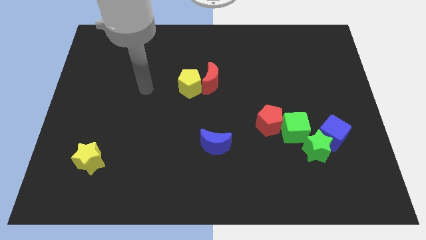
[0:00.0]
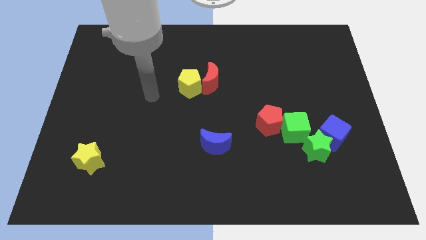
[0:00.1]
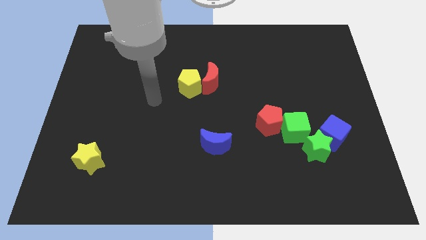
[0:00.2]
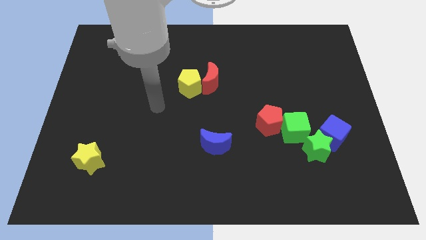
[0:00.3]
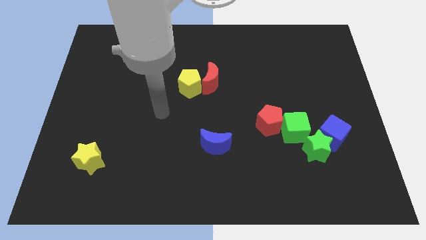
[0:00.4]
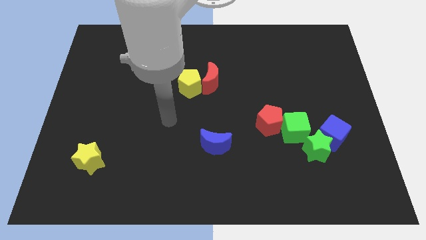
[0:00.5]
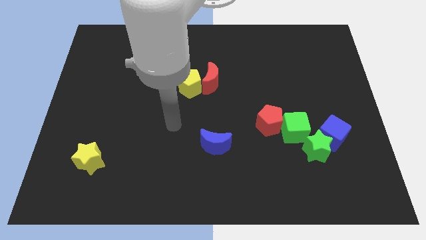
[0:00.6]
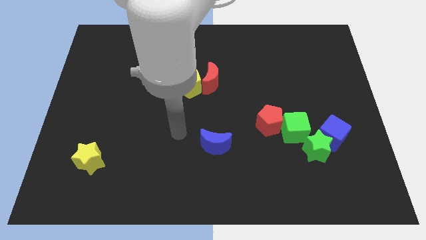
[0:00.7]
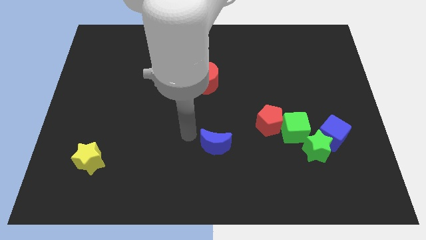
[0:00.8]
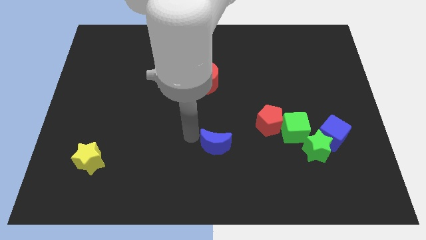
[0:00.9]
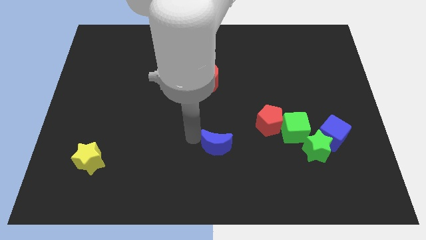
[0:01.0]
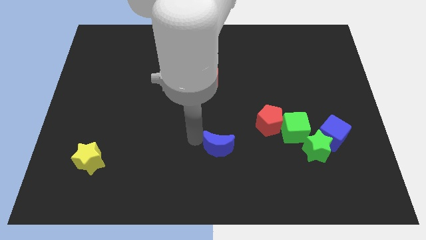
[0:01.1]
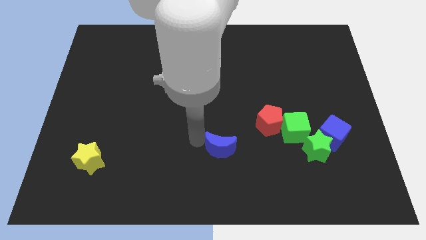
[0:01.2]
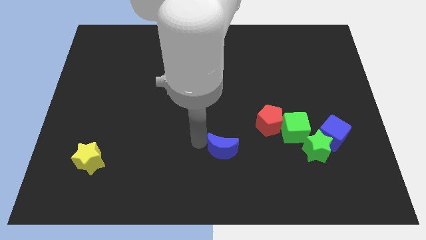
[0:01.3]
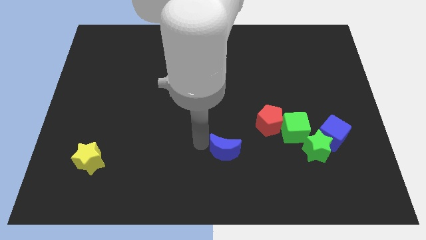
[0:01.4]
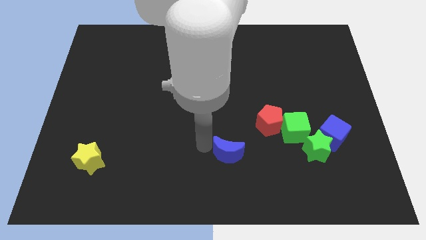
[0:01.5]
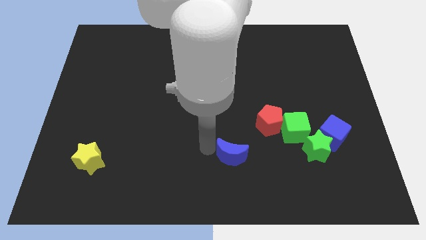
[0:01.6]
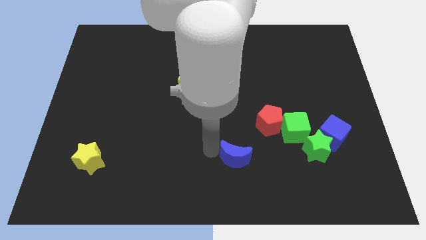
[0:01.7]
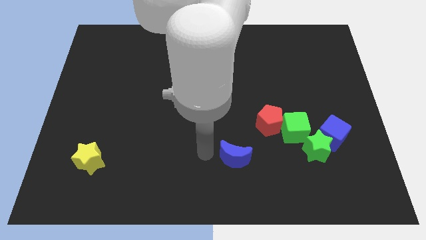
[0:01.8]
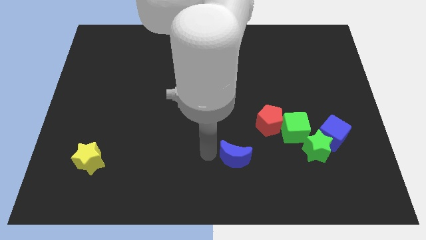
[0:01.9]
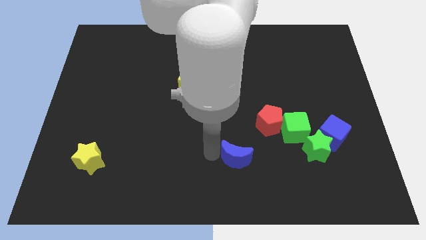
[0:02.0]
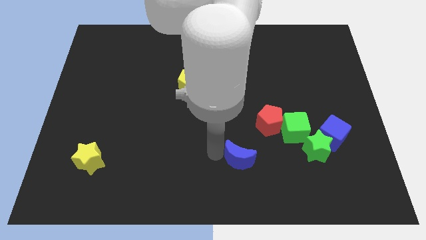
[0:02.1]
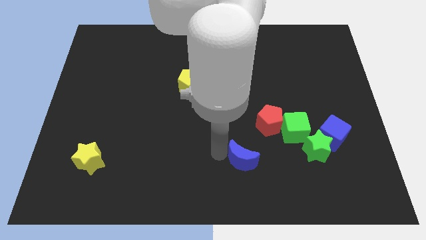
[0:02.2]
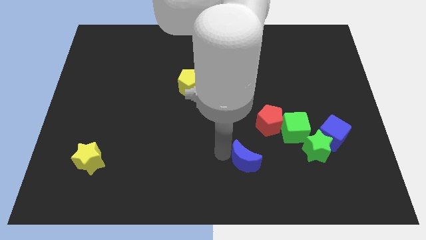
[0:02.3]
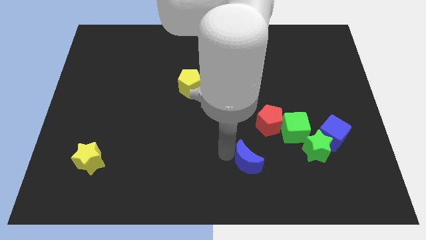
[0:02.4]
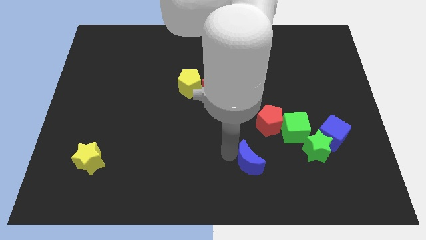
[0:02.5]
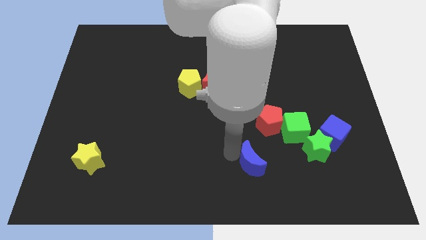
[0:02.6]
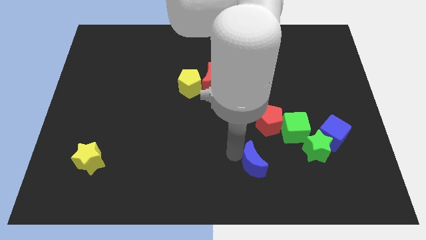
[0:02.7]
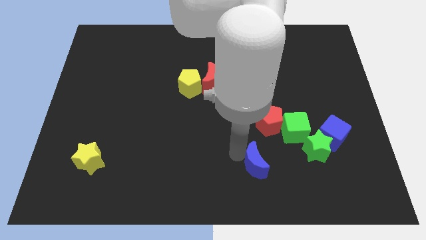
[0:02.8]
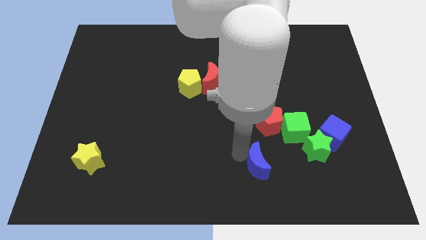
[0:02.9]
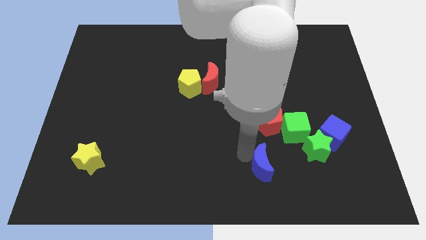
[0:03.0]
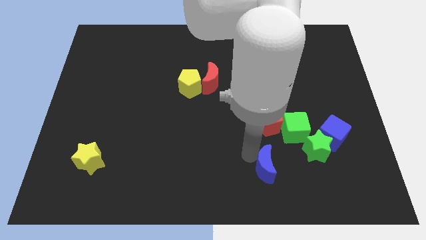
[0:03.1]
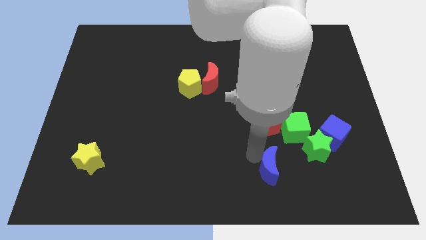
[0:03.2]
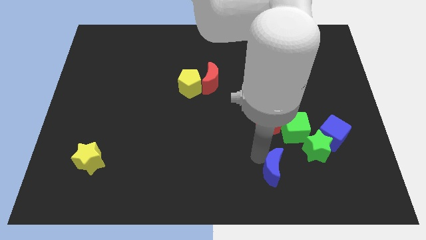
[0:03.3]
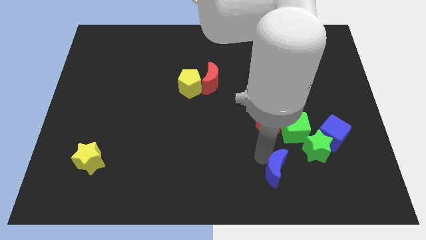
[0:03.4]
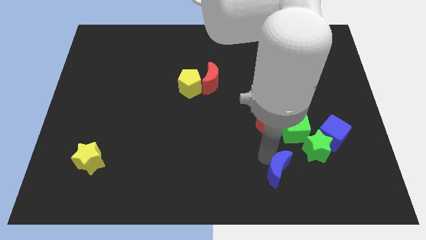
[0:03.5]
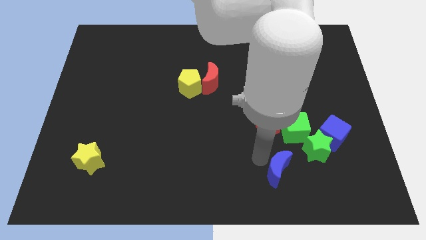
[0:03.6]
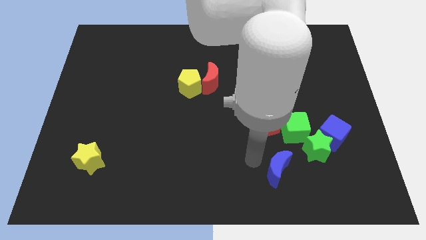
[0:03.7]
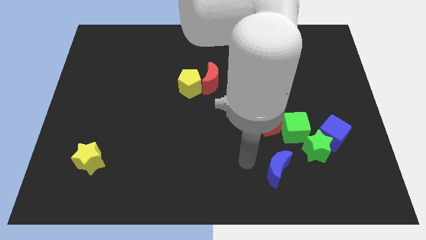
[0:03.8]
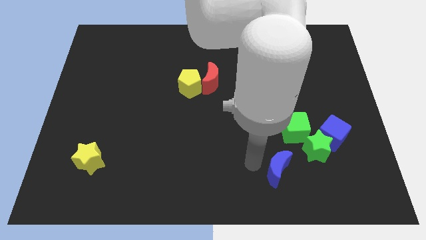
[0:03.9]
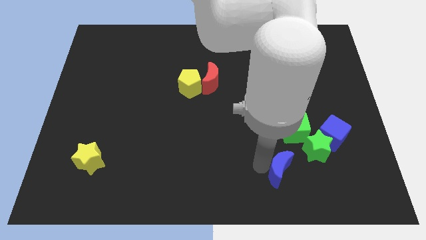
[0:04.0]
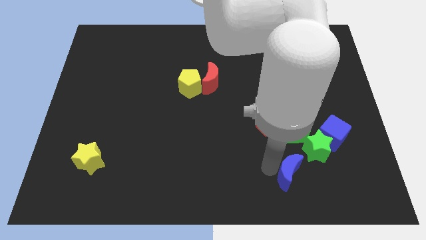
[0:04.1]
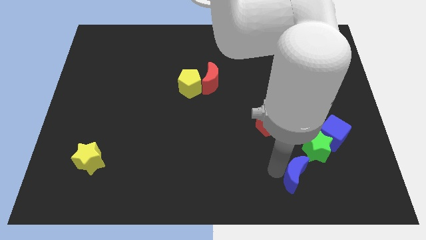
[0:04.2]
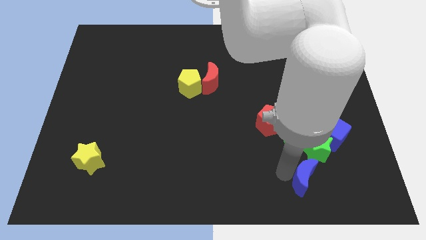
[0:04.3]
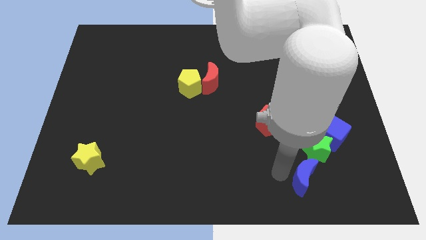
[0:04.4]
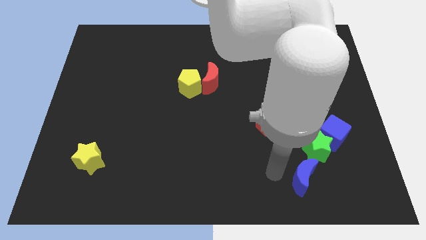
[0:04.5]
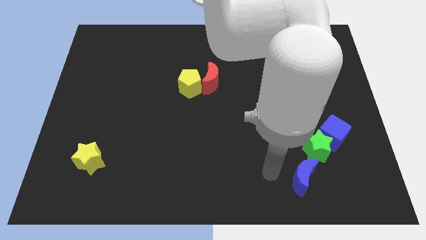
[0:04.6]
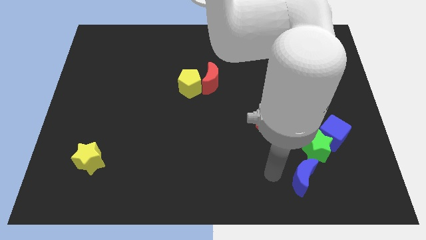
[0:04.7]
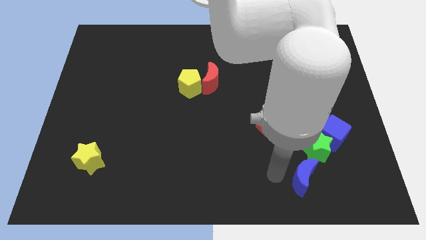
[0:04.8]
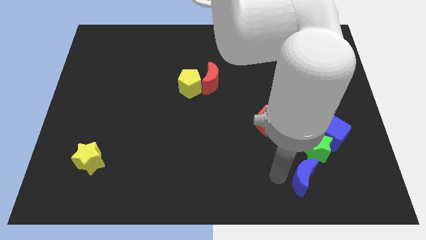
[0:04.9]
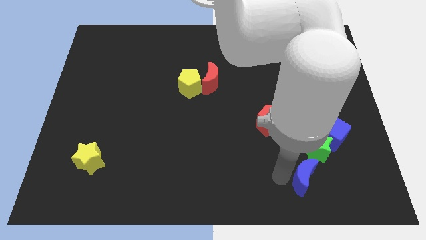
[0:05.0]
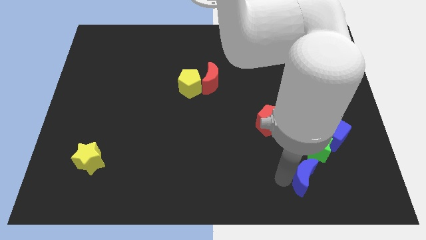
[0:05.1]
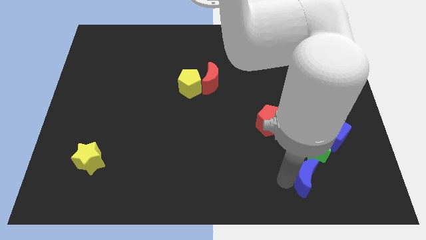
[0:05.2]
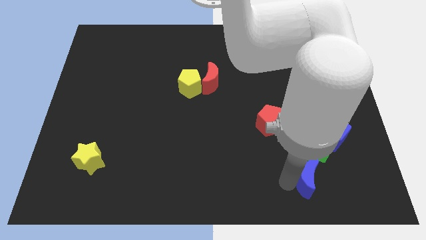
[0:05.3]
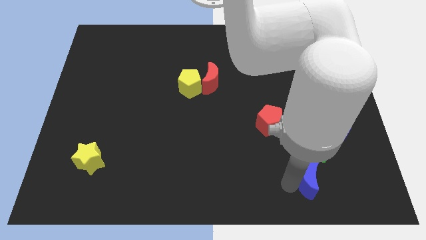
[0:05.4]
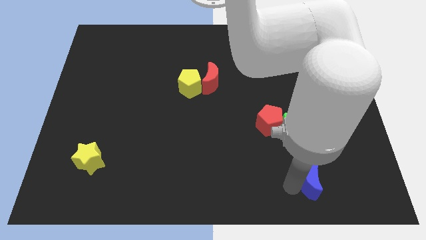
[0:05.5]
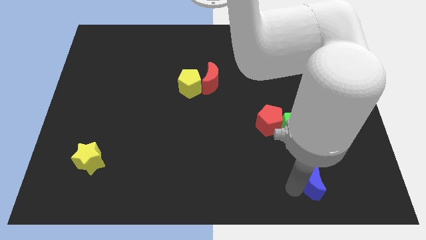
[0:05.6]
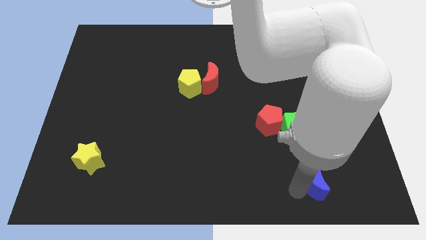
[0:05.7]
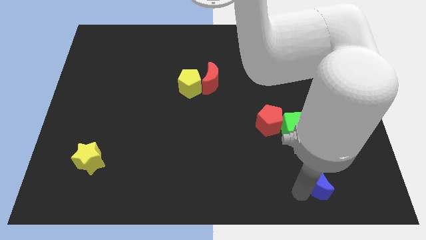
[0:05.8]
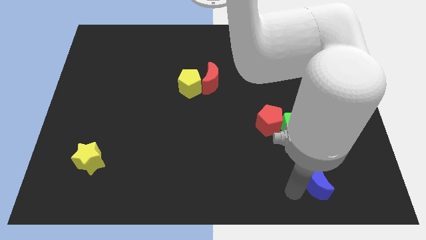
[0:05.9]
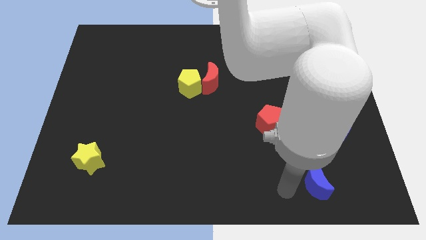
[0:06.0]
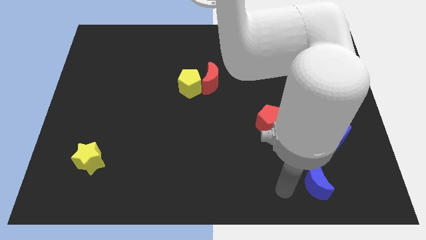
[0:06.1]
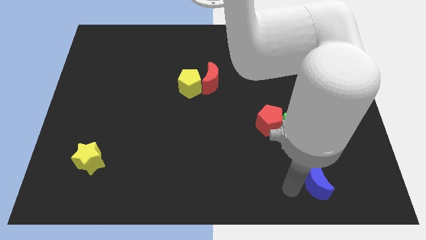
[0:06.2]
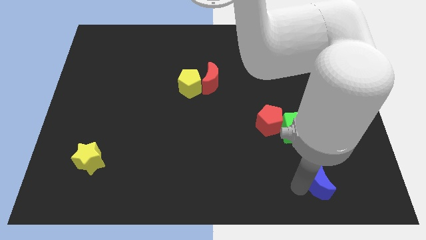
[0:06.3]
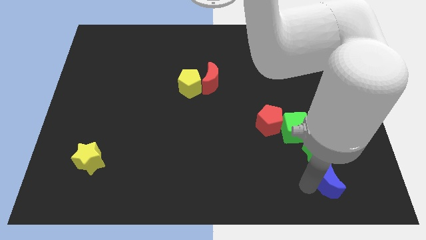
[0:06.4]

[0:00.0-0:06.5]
move the blue moon to the bottom of the blue cube

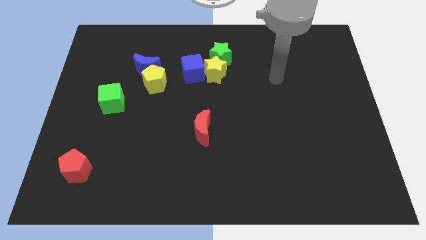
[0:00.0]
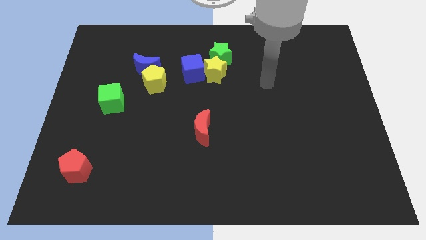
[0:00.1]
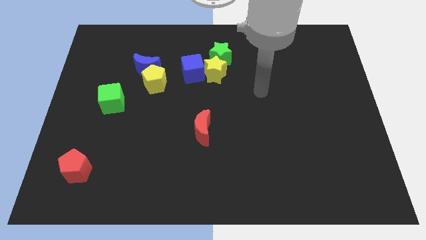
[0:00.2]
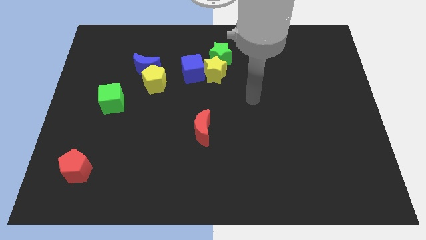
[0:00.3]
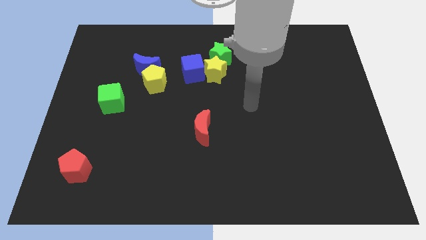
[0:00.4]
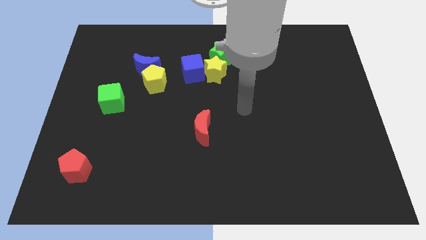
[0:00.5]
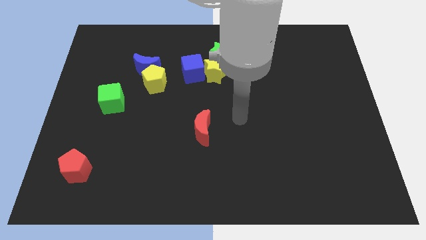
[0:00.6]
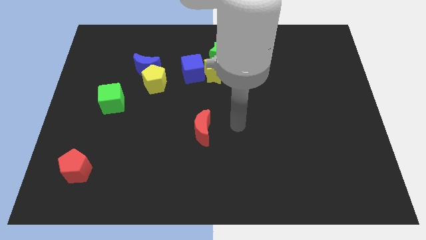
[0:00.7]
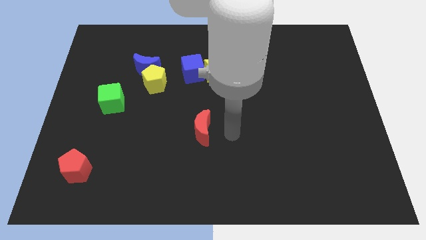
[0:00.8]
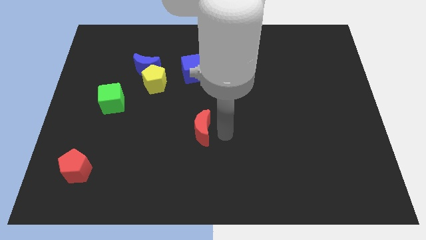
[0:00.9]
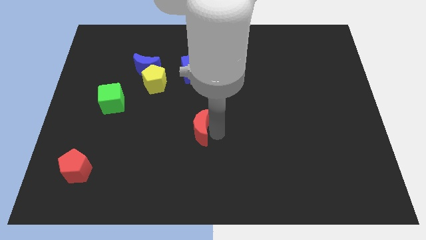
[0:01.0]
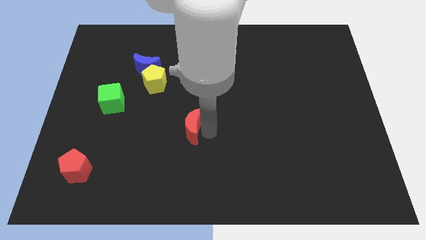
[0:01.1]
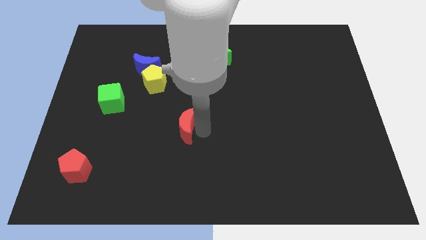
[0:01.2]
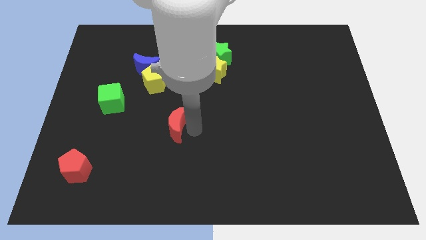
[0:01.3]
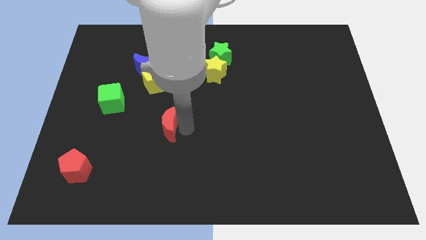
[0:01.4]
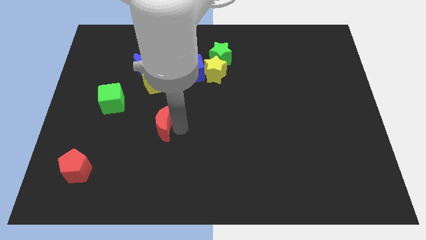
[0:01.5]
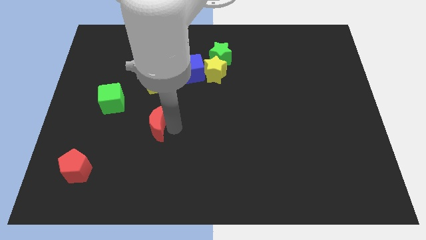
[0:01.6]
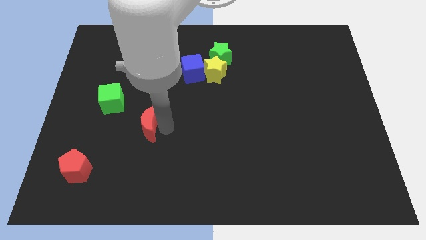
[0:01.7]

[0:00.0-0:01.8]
move the red moon to the bottom right side of the green cube
